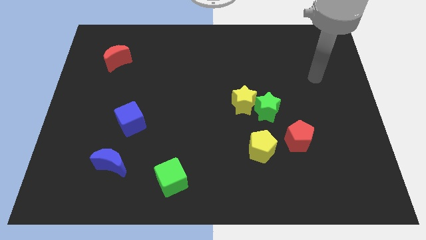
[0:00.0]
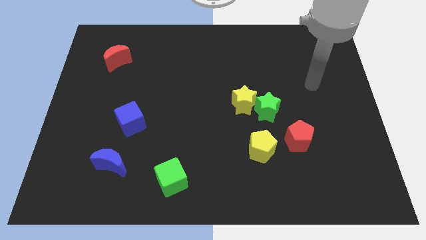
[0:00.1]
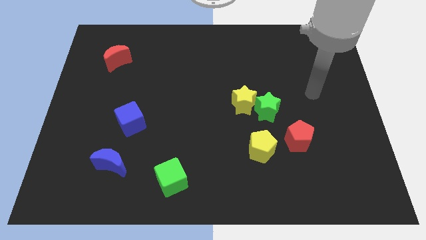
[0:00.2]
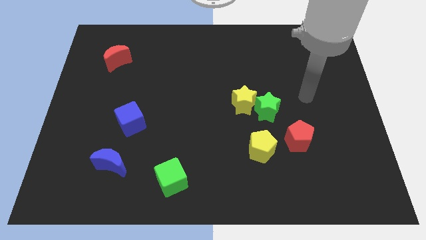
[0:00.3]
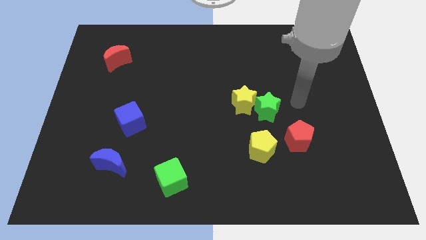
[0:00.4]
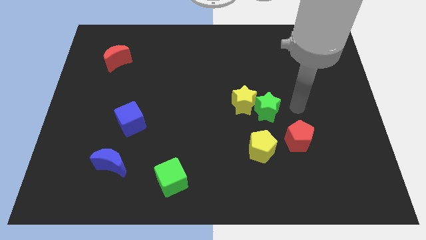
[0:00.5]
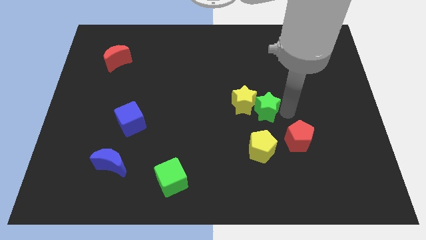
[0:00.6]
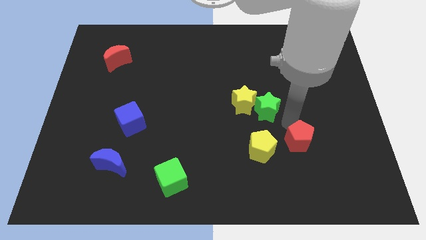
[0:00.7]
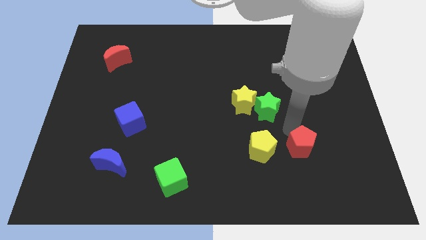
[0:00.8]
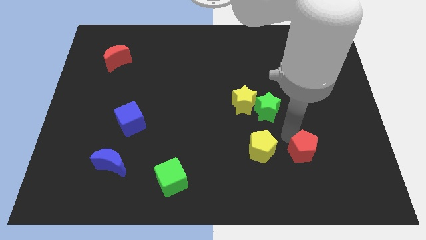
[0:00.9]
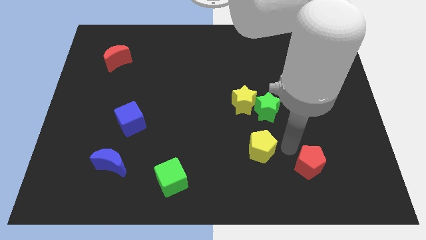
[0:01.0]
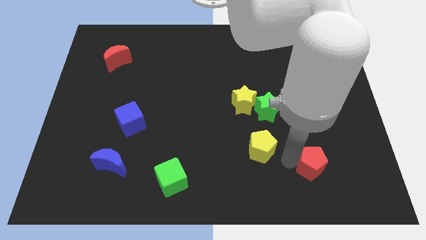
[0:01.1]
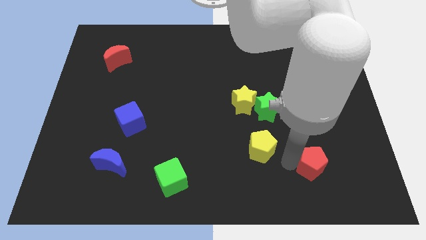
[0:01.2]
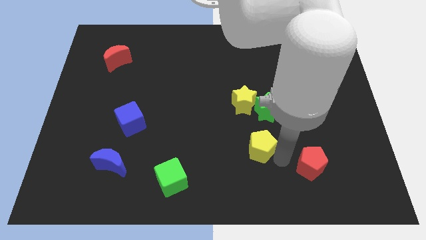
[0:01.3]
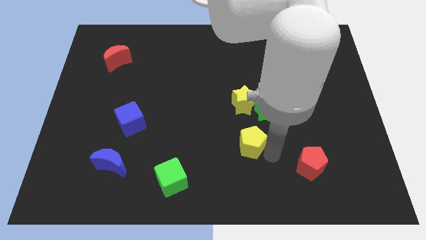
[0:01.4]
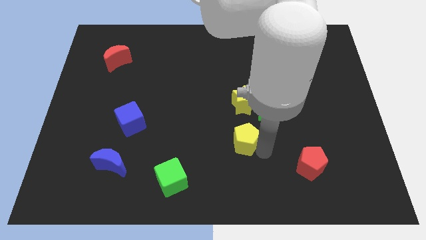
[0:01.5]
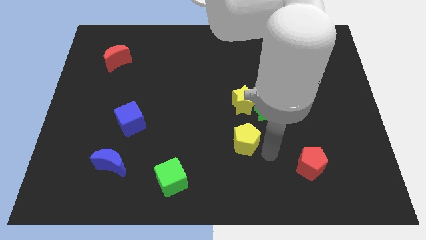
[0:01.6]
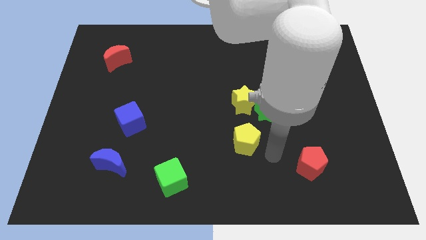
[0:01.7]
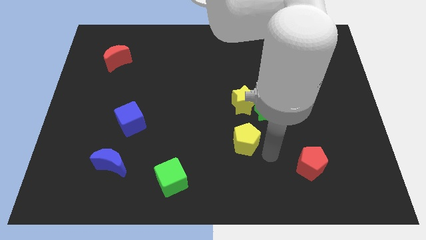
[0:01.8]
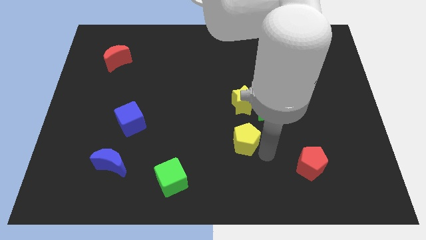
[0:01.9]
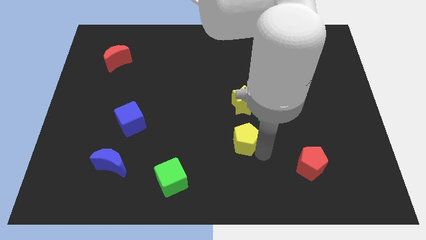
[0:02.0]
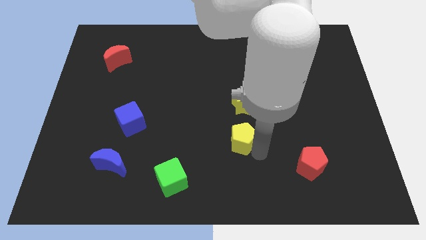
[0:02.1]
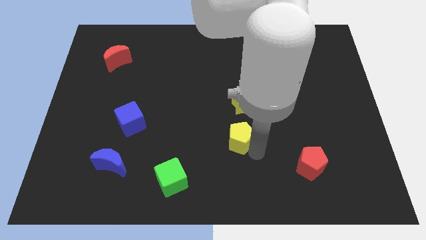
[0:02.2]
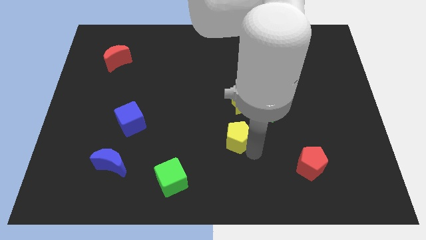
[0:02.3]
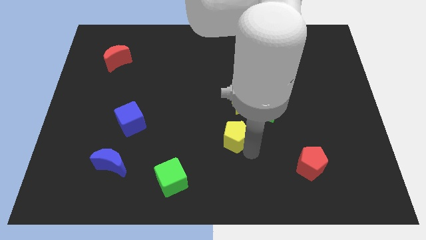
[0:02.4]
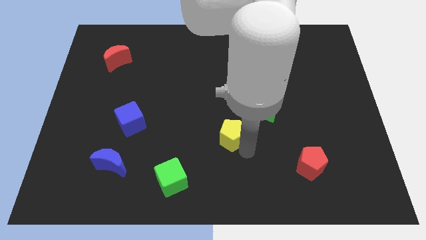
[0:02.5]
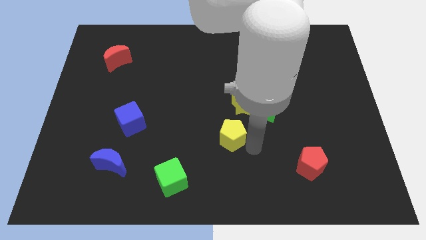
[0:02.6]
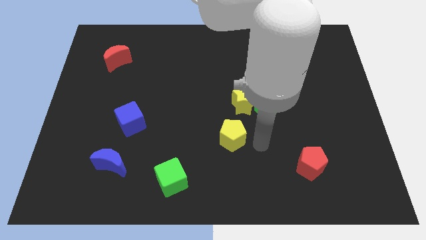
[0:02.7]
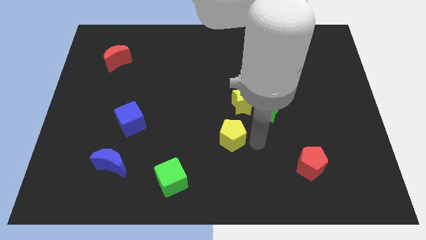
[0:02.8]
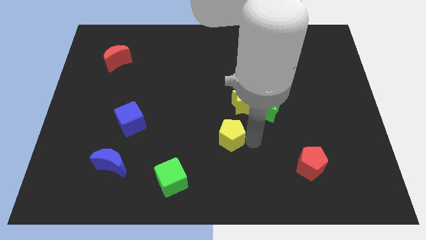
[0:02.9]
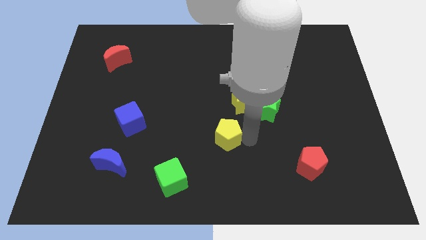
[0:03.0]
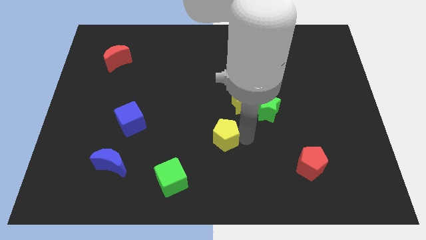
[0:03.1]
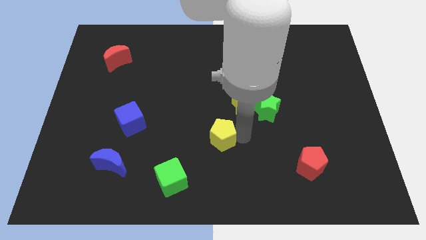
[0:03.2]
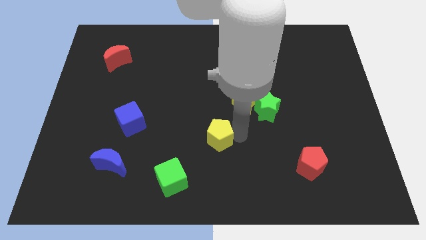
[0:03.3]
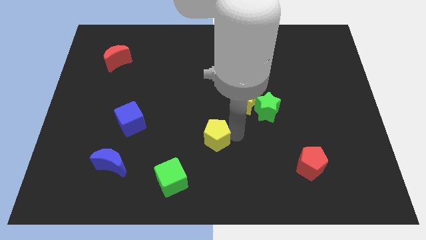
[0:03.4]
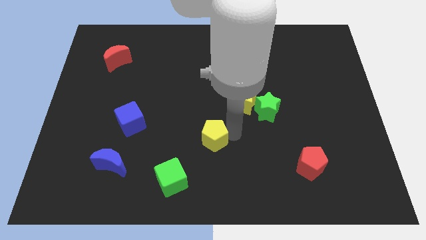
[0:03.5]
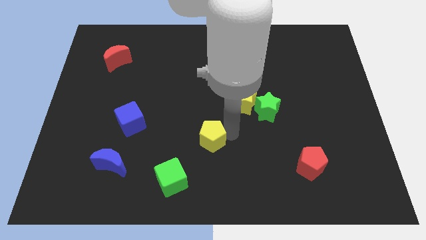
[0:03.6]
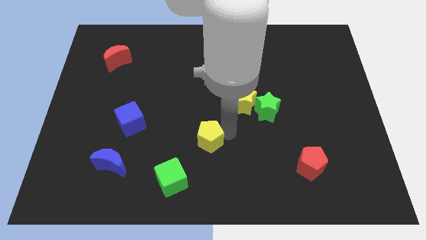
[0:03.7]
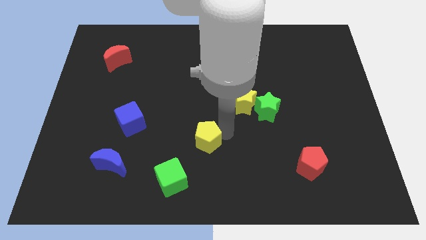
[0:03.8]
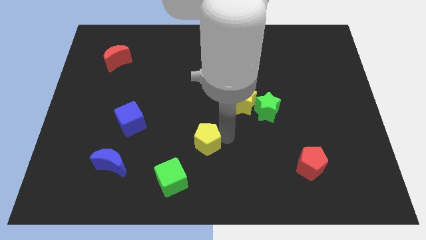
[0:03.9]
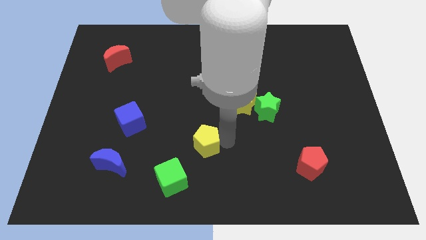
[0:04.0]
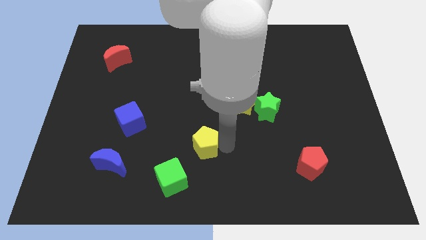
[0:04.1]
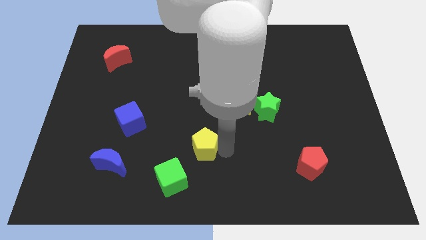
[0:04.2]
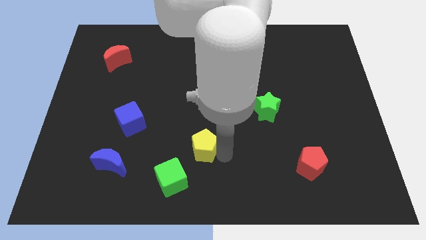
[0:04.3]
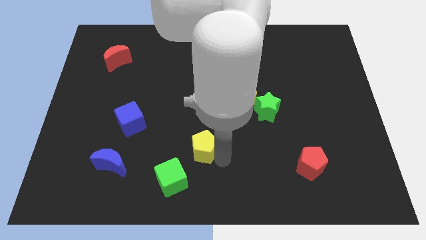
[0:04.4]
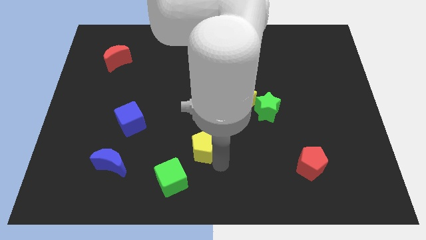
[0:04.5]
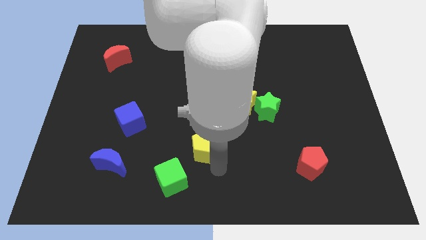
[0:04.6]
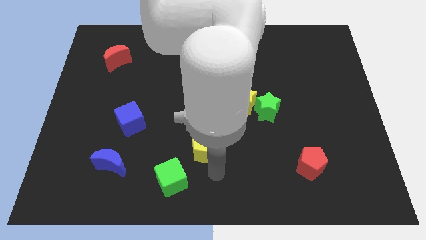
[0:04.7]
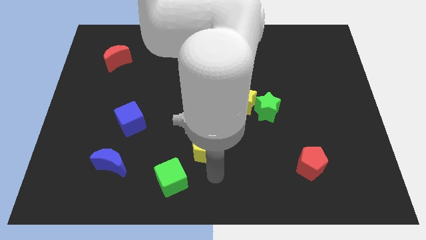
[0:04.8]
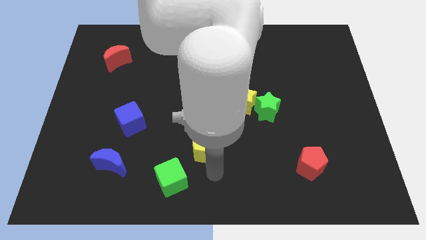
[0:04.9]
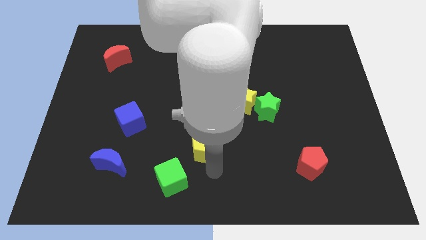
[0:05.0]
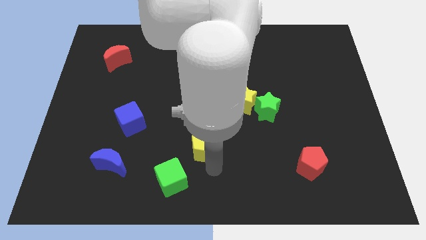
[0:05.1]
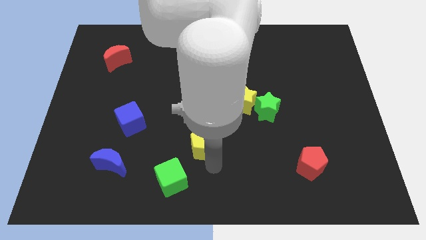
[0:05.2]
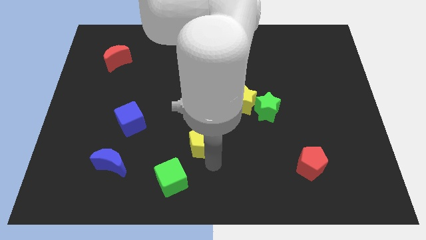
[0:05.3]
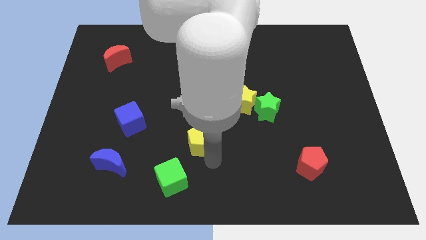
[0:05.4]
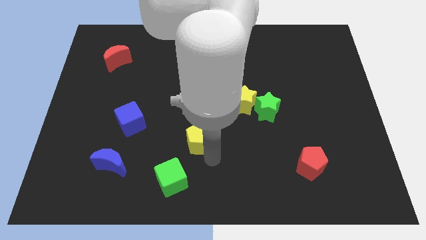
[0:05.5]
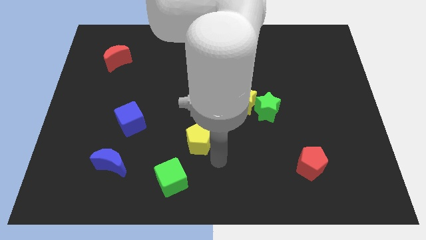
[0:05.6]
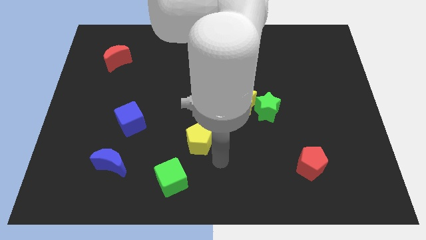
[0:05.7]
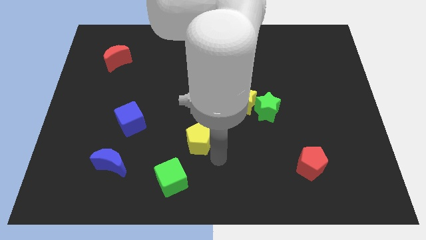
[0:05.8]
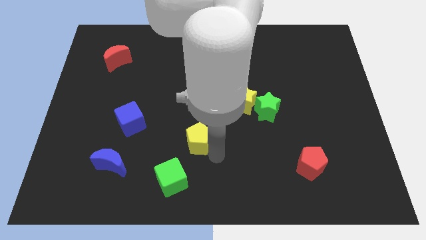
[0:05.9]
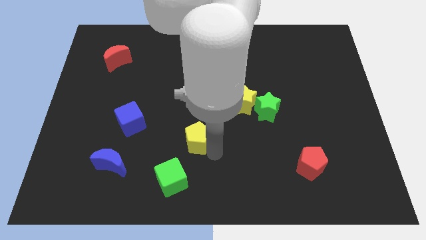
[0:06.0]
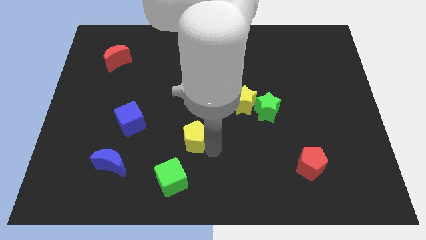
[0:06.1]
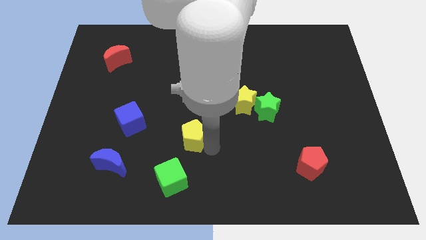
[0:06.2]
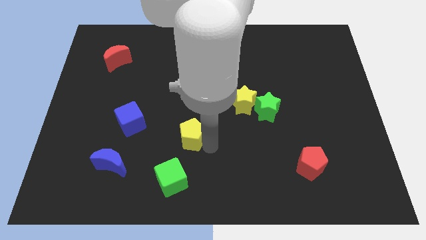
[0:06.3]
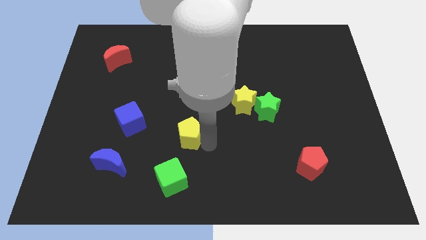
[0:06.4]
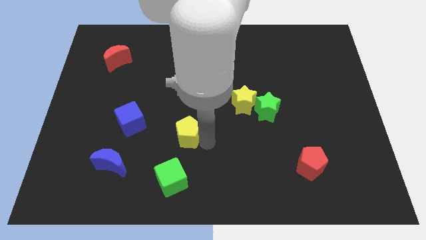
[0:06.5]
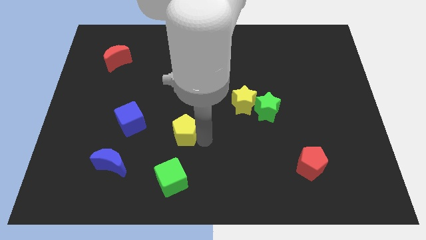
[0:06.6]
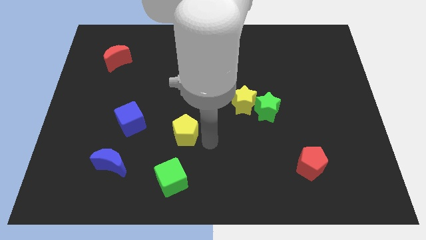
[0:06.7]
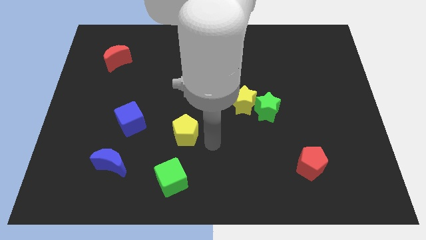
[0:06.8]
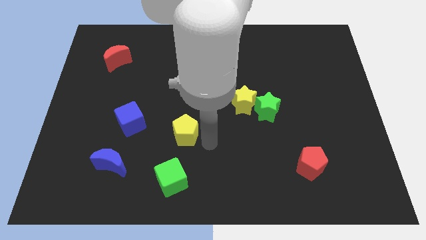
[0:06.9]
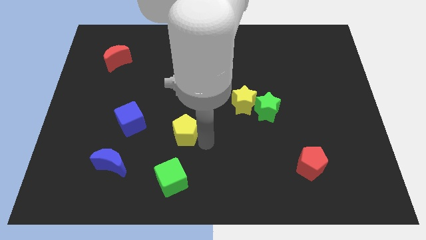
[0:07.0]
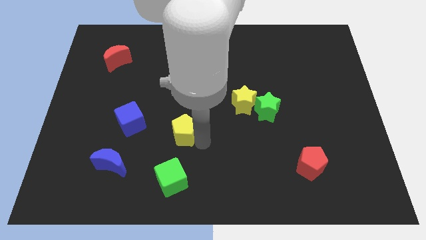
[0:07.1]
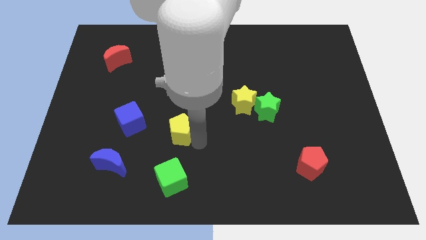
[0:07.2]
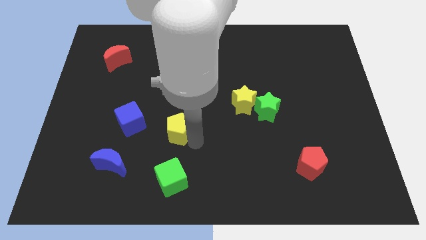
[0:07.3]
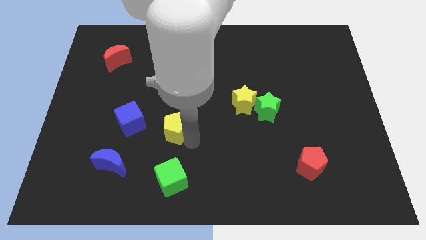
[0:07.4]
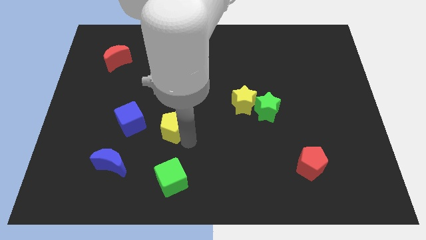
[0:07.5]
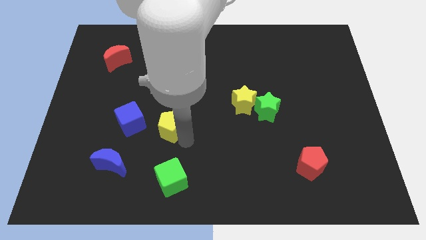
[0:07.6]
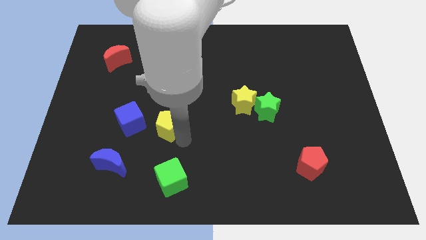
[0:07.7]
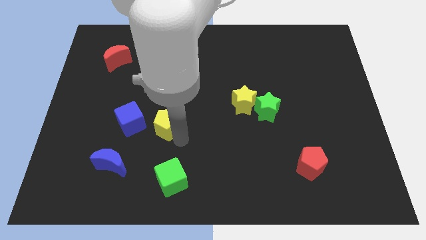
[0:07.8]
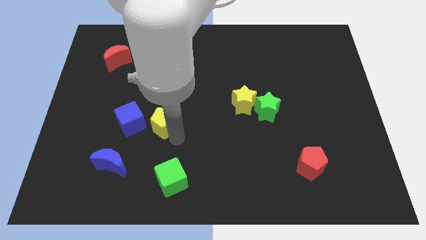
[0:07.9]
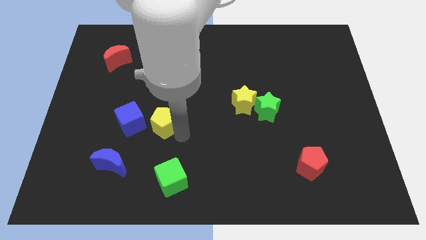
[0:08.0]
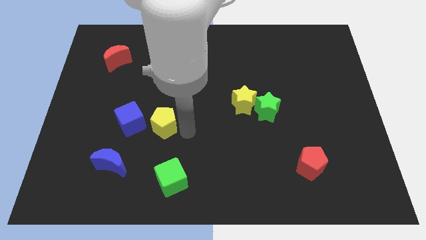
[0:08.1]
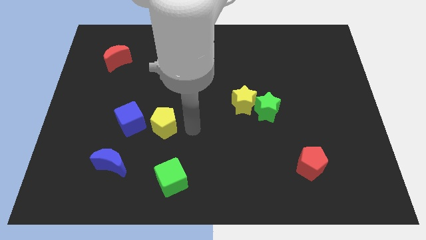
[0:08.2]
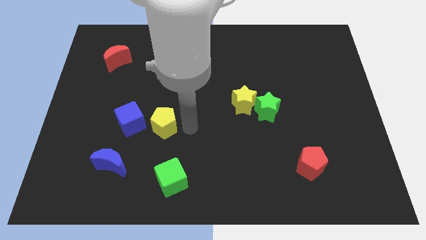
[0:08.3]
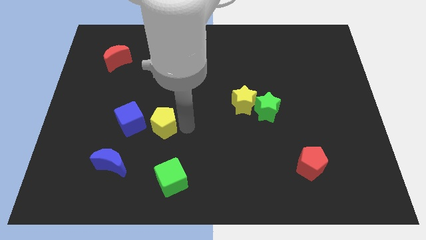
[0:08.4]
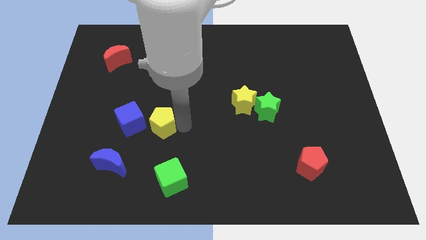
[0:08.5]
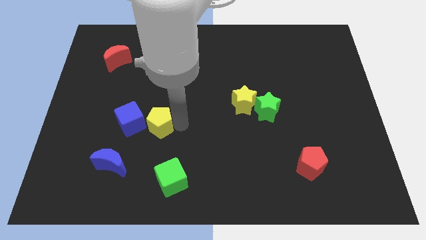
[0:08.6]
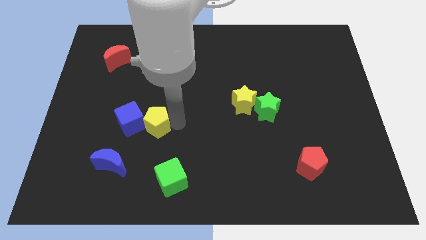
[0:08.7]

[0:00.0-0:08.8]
move the yellow pentagon to the blue cube
